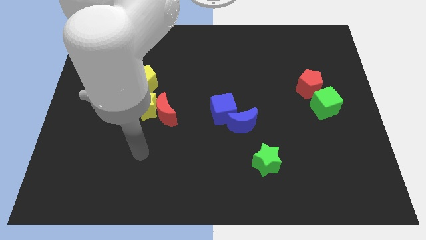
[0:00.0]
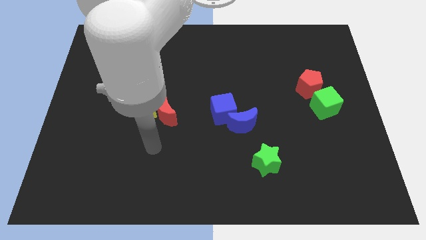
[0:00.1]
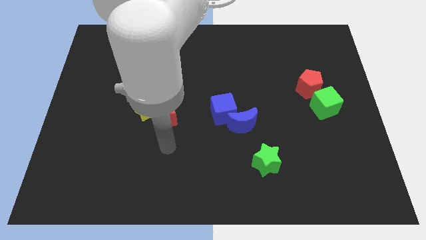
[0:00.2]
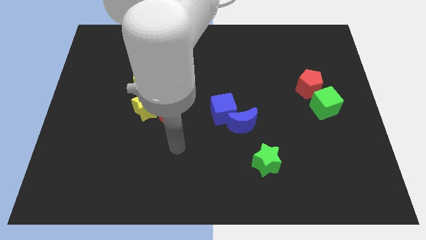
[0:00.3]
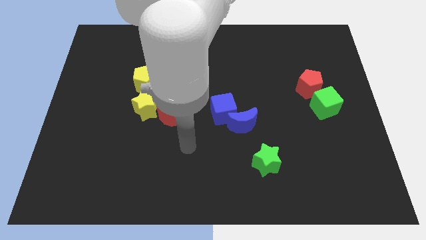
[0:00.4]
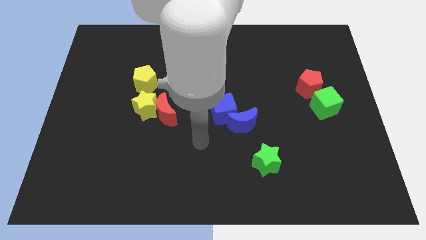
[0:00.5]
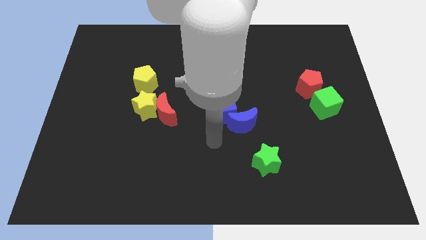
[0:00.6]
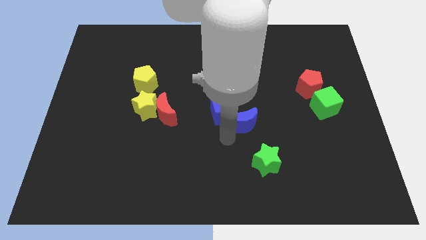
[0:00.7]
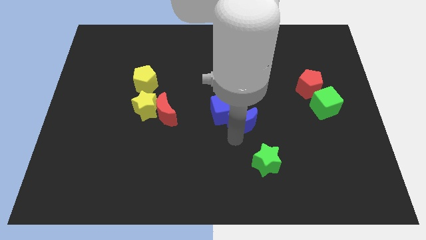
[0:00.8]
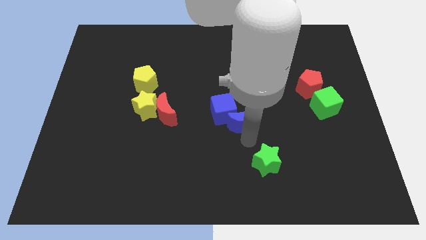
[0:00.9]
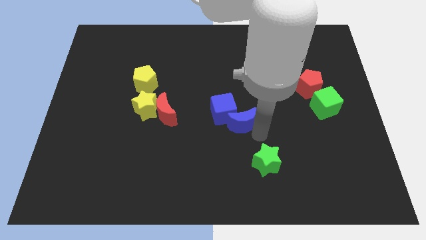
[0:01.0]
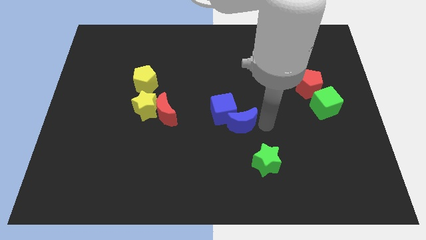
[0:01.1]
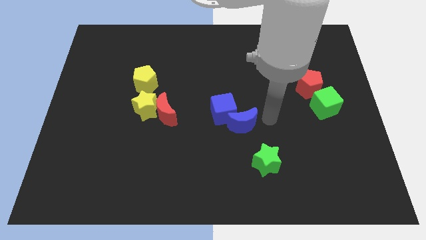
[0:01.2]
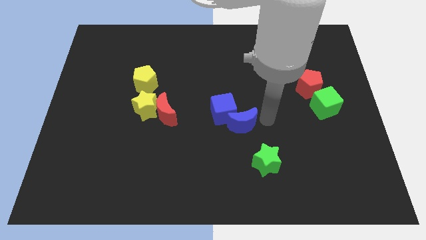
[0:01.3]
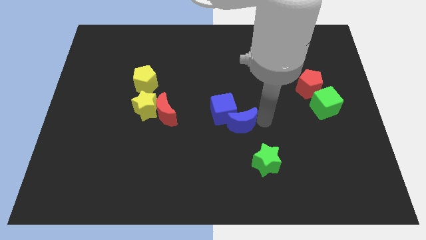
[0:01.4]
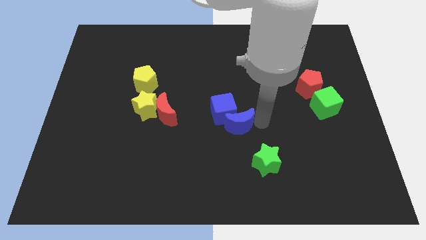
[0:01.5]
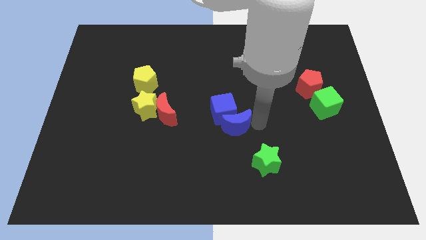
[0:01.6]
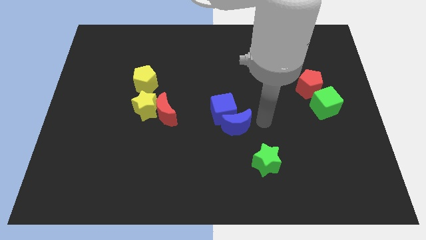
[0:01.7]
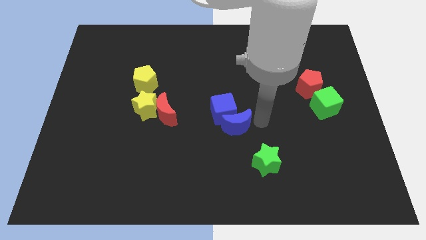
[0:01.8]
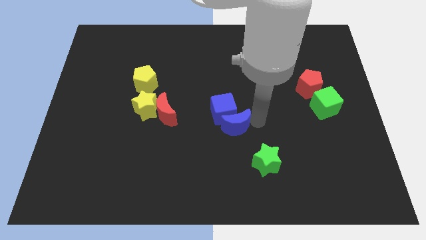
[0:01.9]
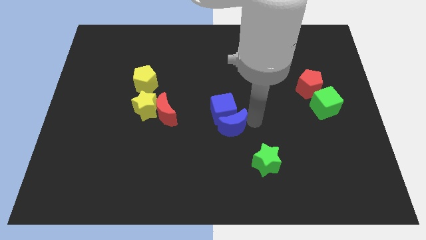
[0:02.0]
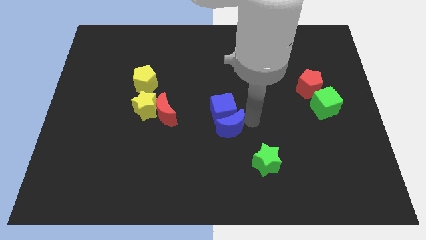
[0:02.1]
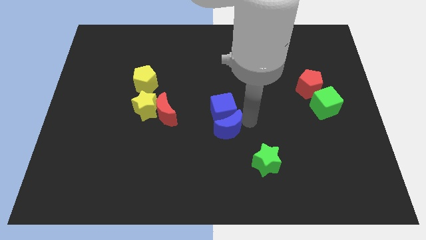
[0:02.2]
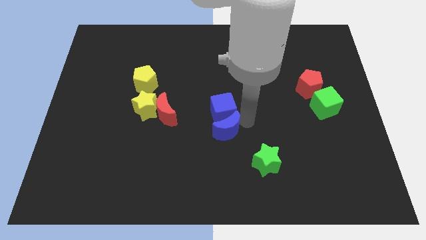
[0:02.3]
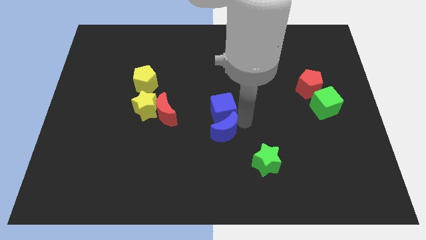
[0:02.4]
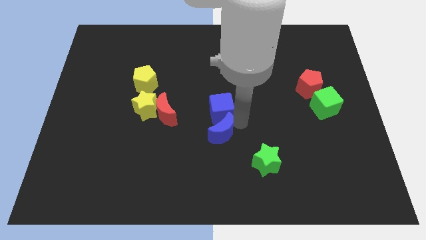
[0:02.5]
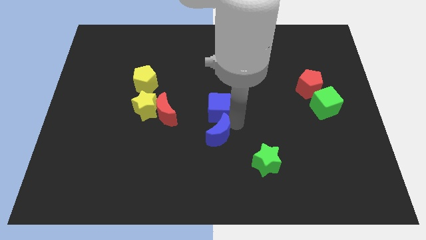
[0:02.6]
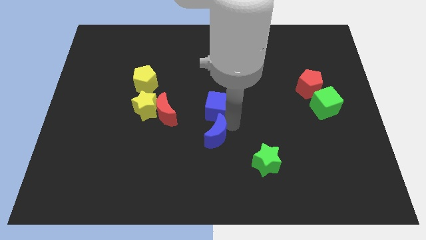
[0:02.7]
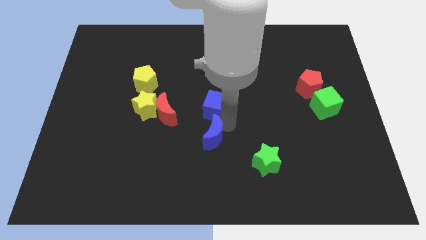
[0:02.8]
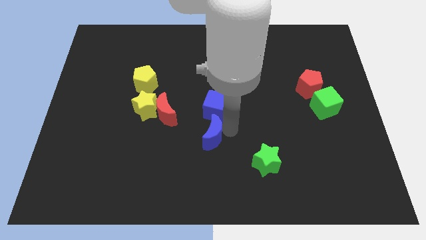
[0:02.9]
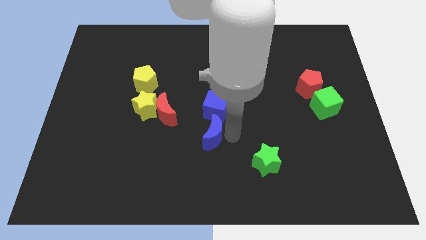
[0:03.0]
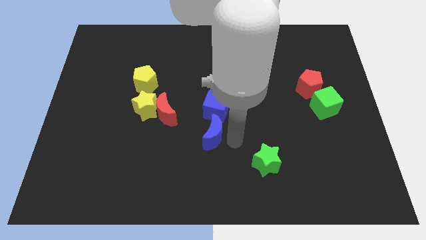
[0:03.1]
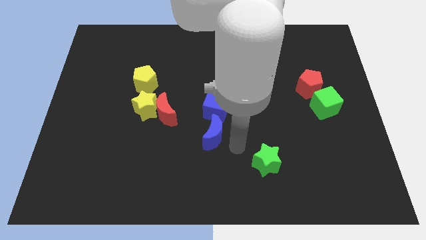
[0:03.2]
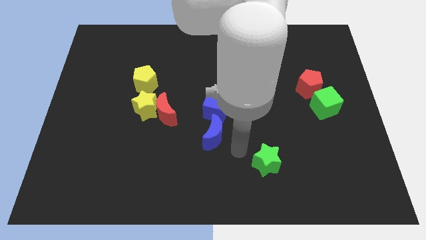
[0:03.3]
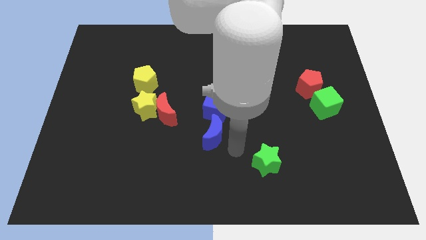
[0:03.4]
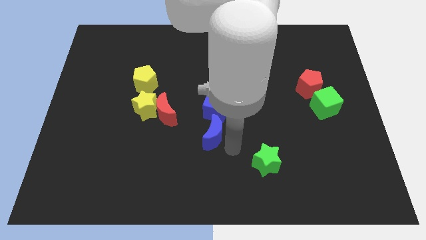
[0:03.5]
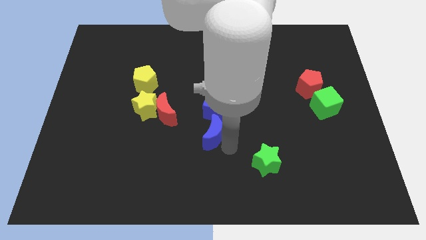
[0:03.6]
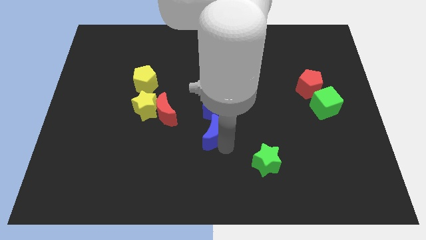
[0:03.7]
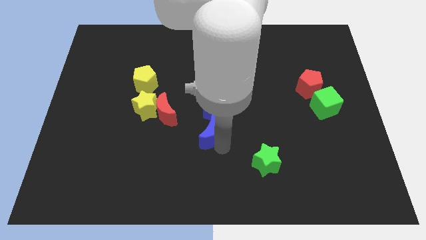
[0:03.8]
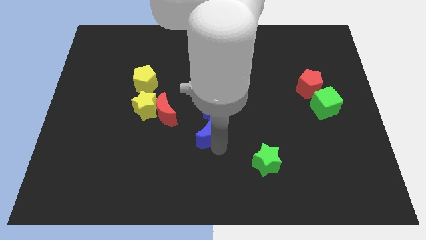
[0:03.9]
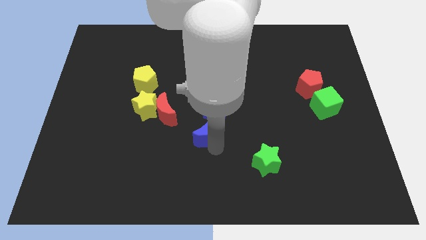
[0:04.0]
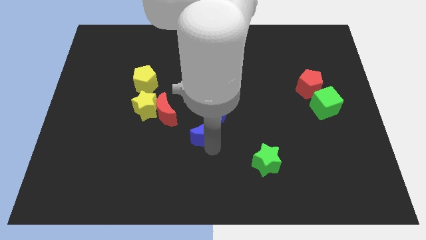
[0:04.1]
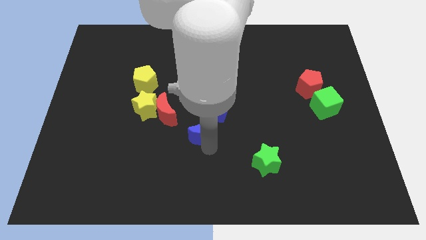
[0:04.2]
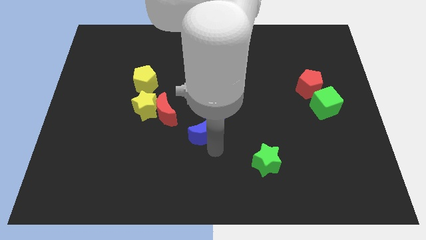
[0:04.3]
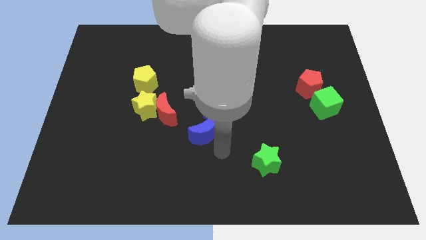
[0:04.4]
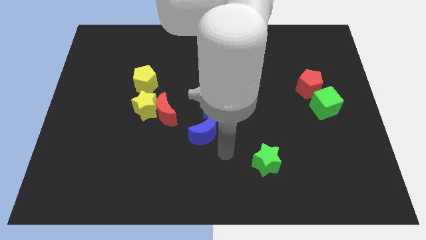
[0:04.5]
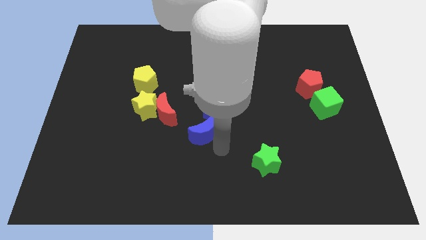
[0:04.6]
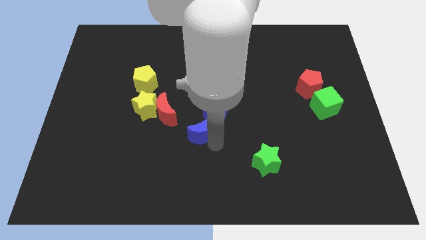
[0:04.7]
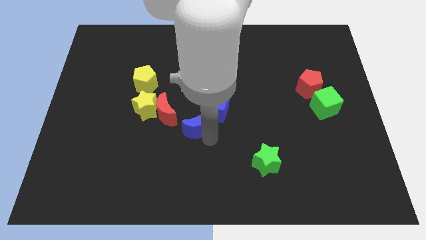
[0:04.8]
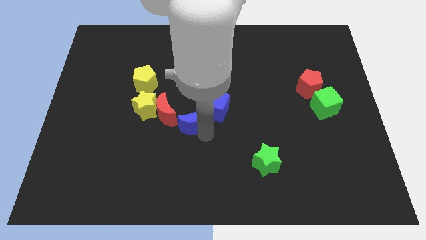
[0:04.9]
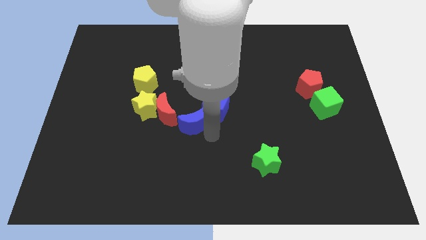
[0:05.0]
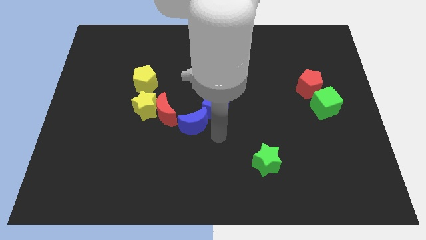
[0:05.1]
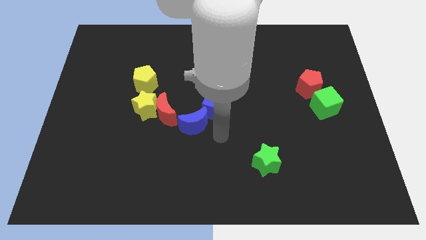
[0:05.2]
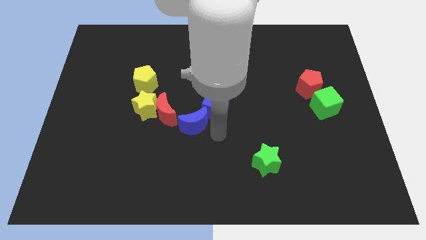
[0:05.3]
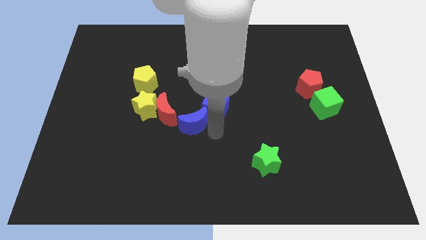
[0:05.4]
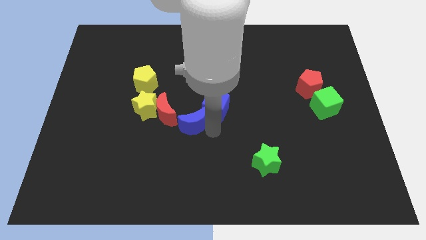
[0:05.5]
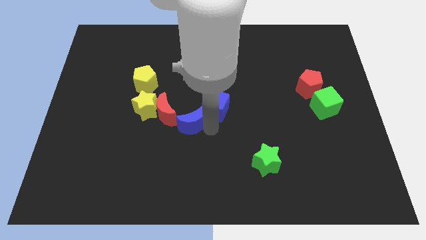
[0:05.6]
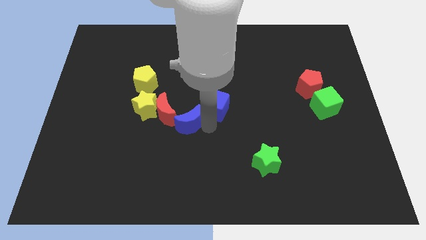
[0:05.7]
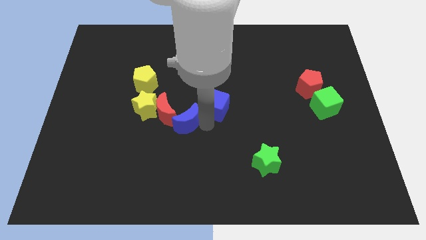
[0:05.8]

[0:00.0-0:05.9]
push the blue moon towards the red moon
